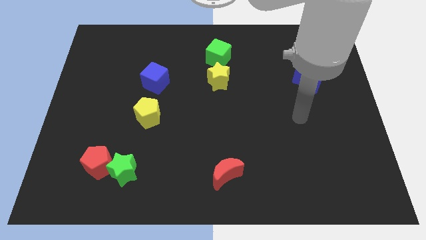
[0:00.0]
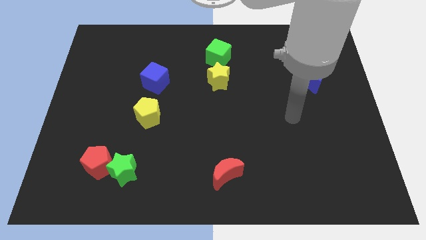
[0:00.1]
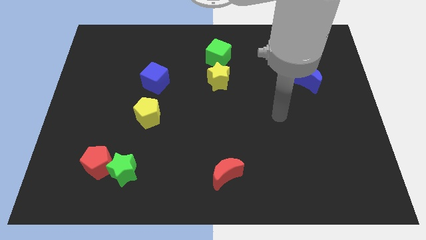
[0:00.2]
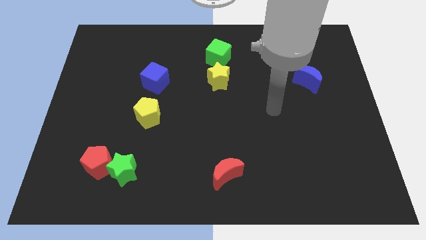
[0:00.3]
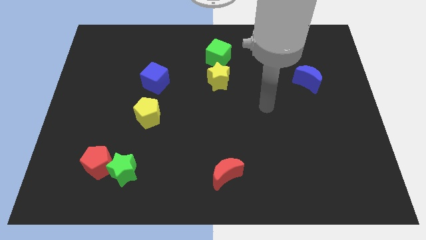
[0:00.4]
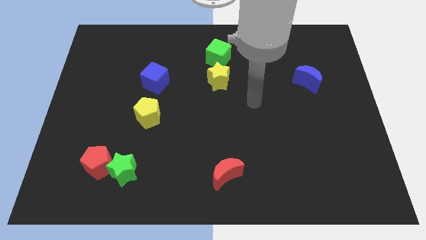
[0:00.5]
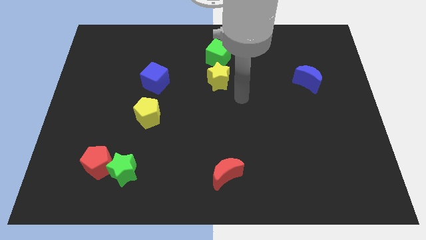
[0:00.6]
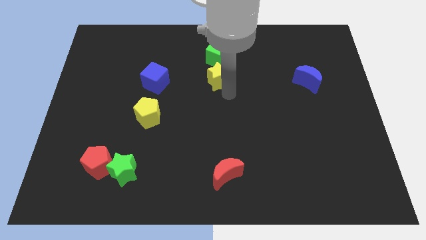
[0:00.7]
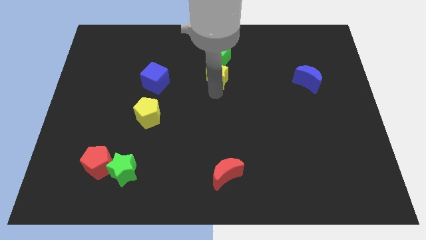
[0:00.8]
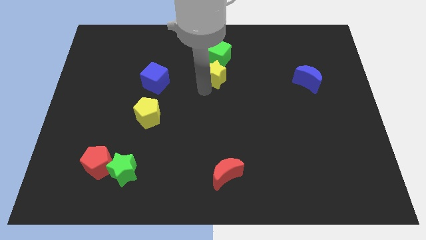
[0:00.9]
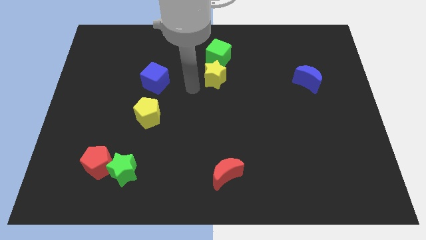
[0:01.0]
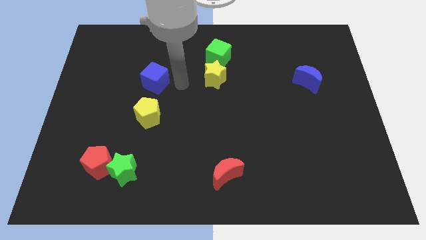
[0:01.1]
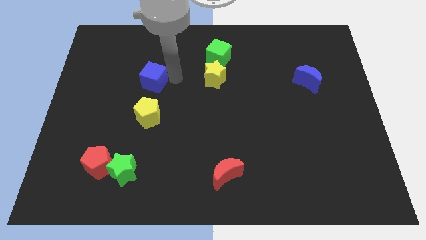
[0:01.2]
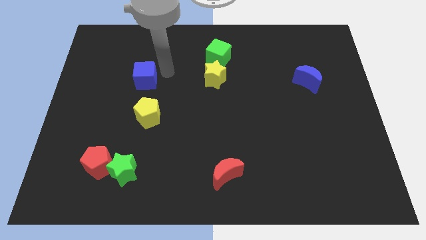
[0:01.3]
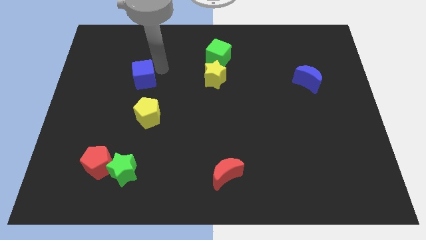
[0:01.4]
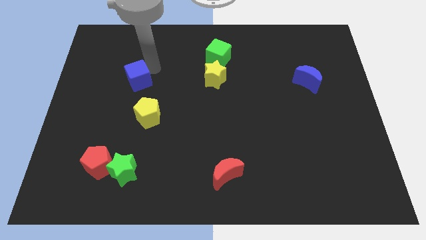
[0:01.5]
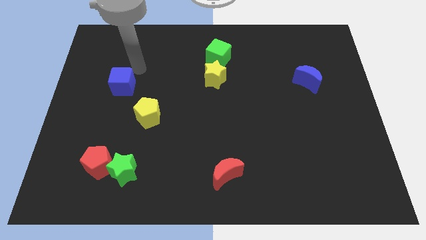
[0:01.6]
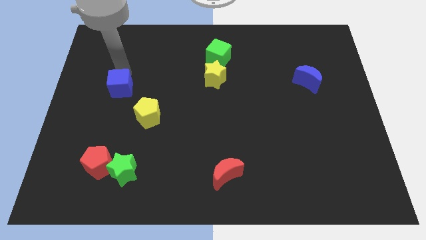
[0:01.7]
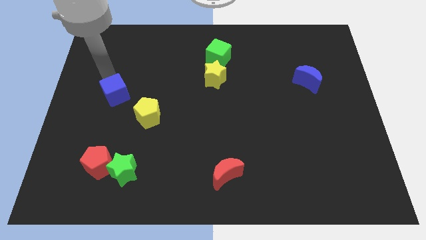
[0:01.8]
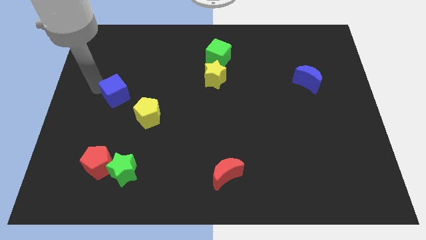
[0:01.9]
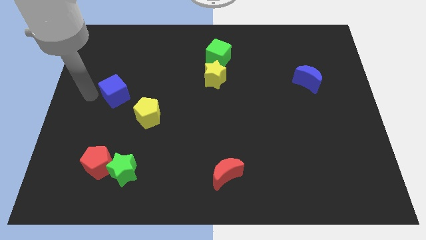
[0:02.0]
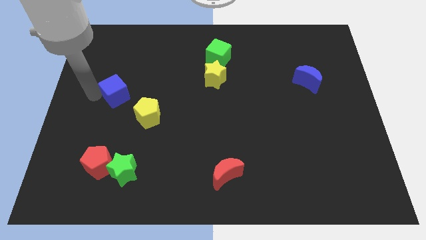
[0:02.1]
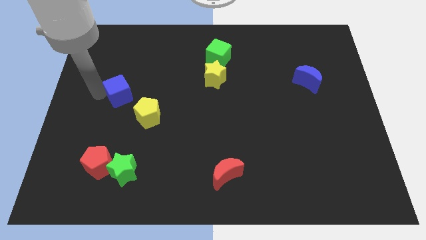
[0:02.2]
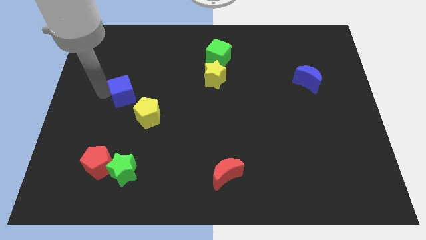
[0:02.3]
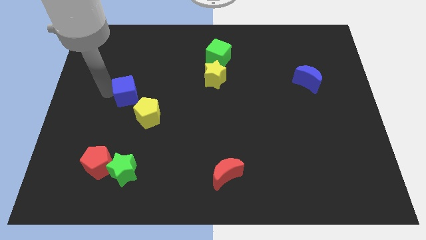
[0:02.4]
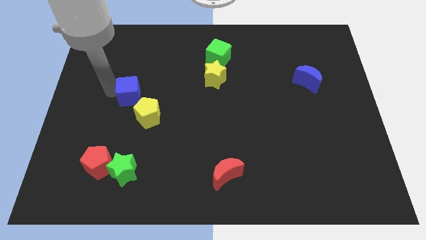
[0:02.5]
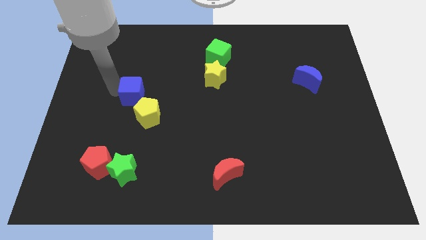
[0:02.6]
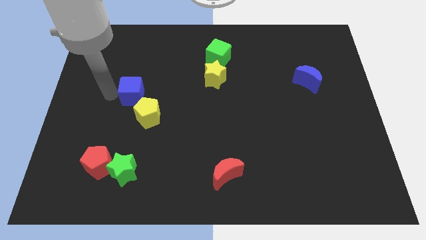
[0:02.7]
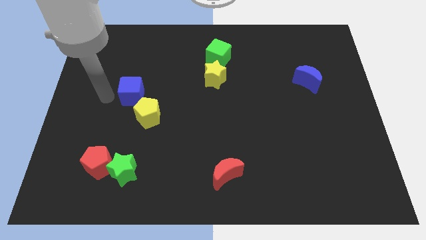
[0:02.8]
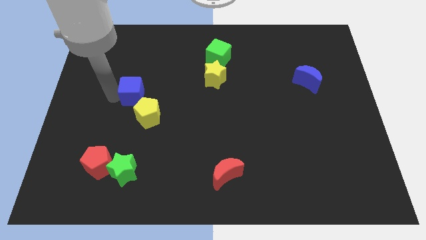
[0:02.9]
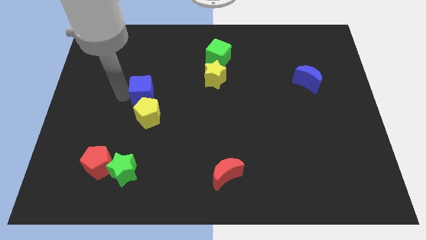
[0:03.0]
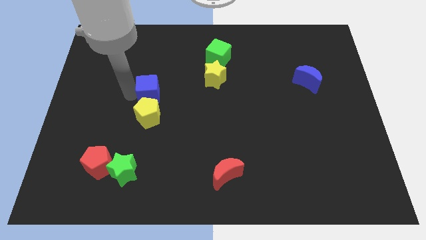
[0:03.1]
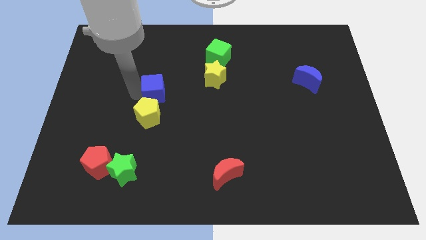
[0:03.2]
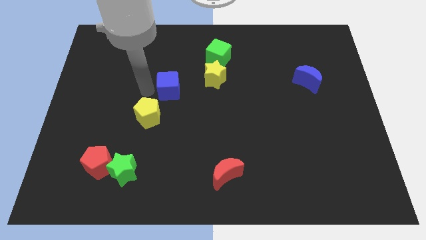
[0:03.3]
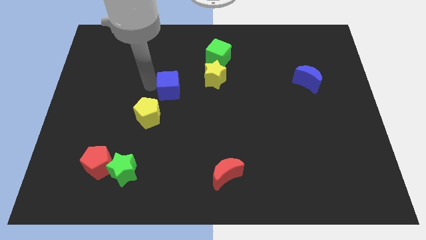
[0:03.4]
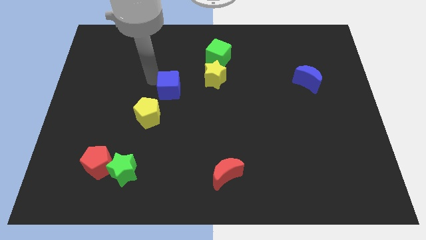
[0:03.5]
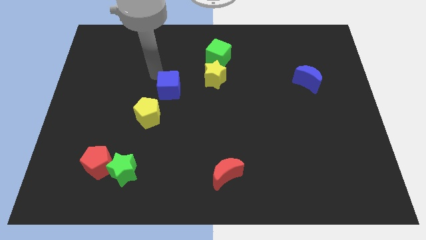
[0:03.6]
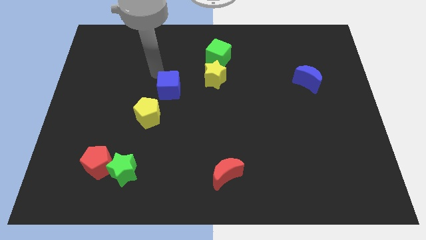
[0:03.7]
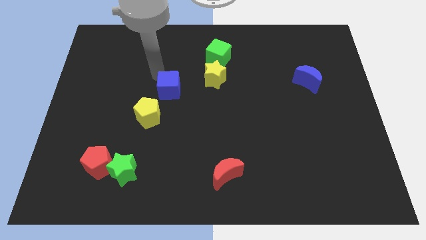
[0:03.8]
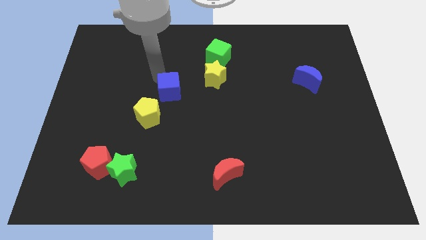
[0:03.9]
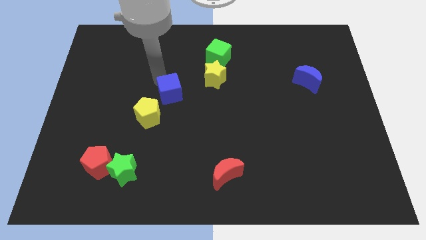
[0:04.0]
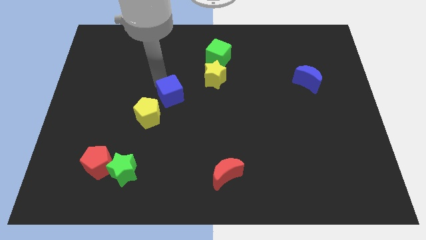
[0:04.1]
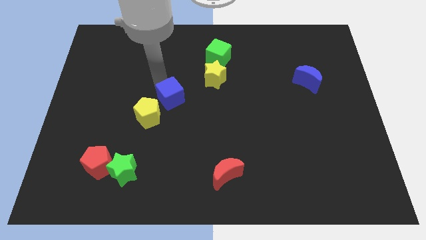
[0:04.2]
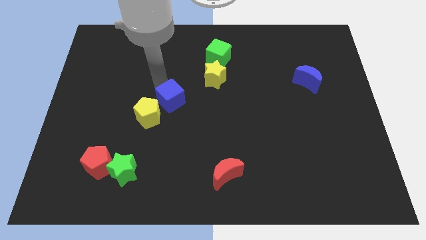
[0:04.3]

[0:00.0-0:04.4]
slightly push the blue cube down and right diagonally

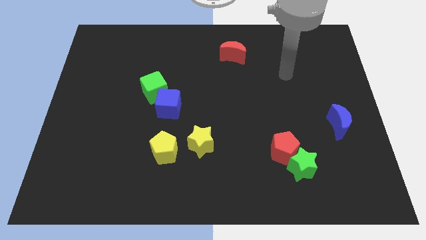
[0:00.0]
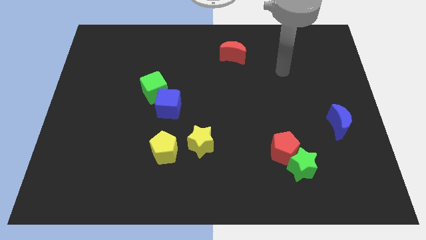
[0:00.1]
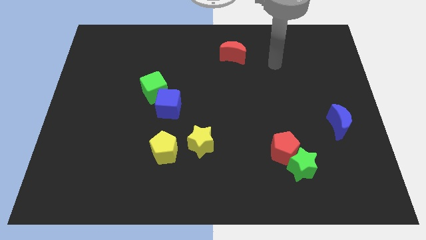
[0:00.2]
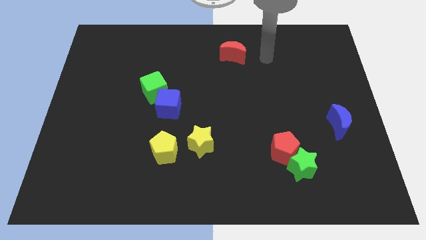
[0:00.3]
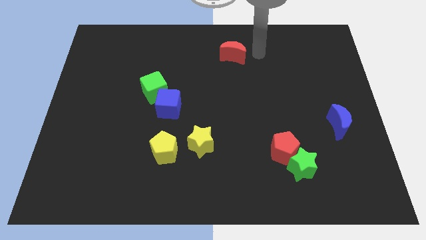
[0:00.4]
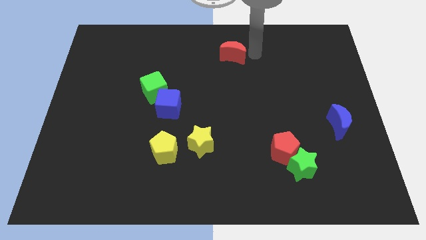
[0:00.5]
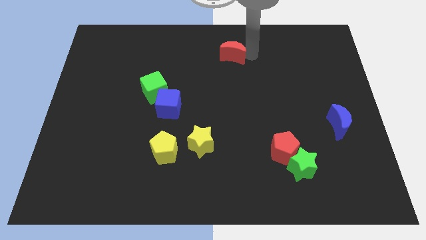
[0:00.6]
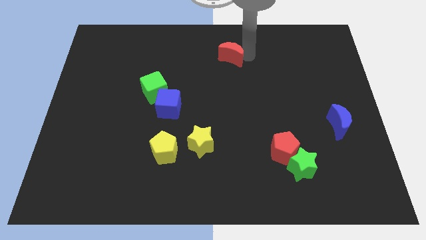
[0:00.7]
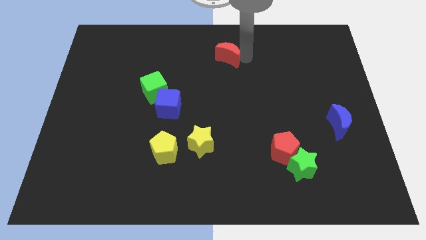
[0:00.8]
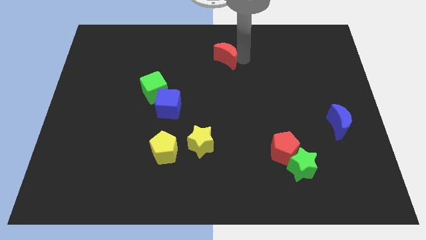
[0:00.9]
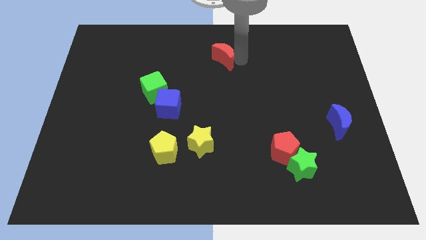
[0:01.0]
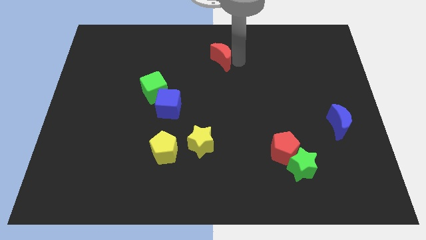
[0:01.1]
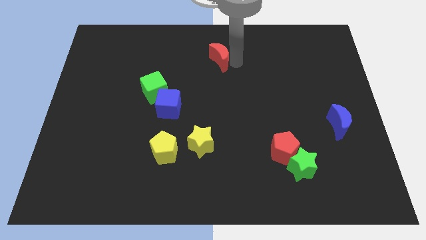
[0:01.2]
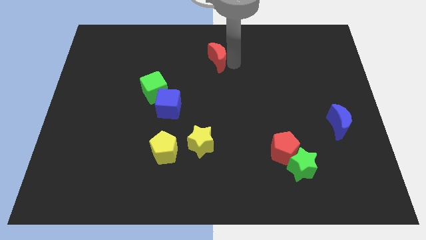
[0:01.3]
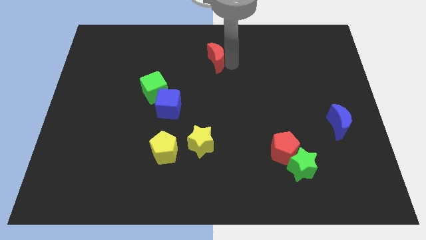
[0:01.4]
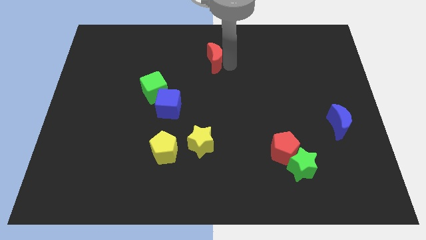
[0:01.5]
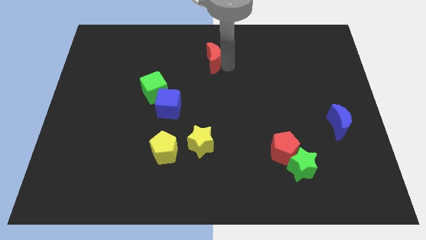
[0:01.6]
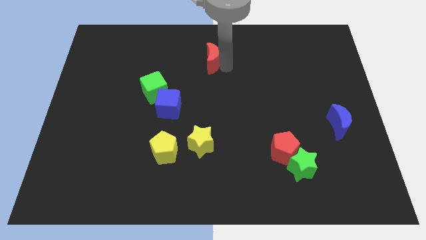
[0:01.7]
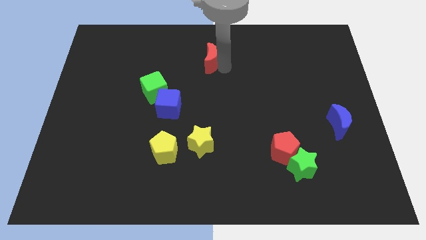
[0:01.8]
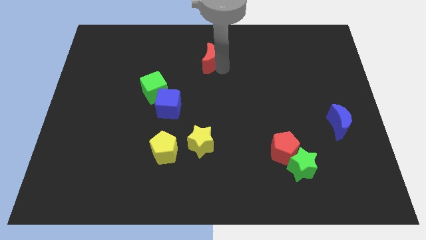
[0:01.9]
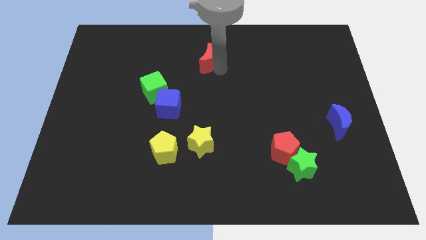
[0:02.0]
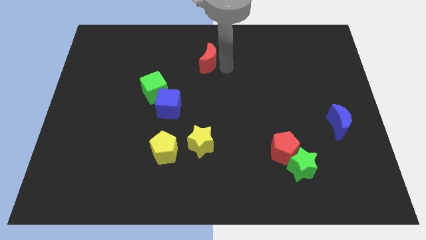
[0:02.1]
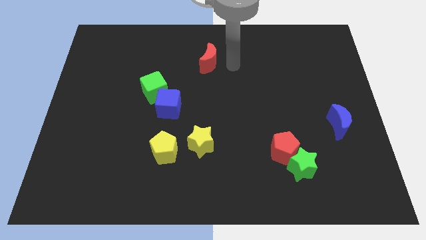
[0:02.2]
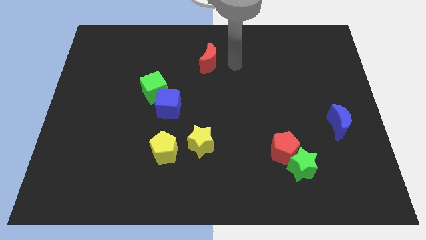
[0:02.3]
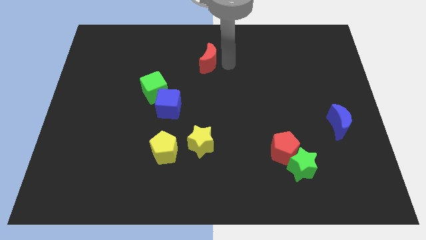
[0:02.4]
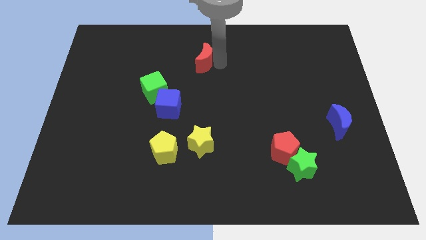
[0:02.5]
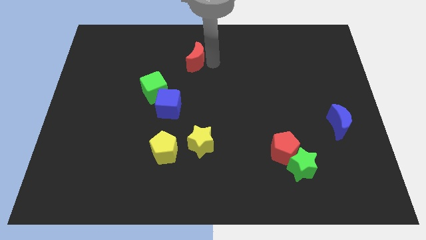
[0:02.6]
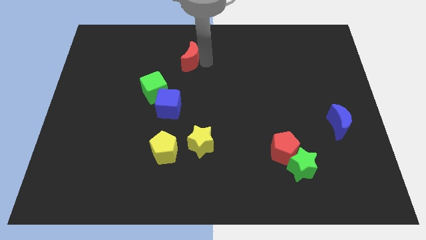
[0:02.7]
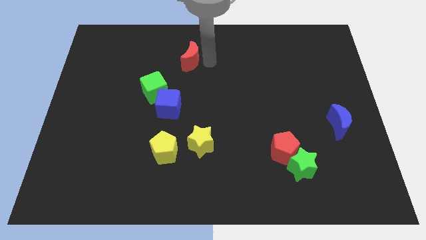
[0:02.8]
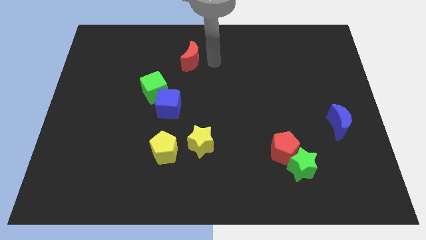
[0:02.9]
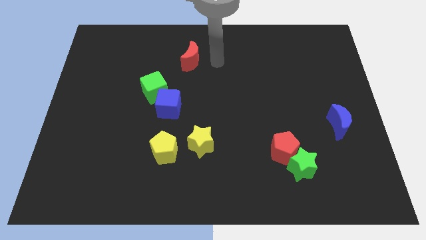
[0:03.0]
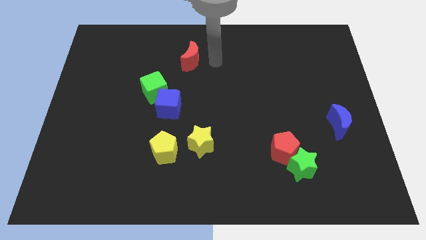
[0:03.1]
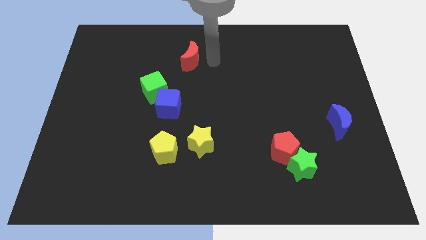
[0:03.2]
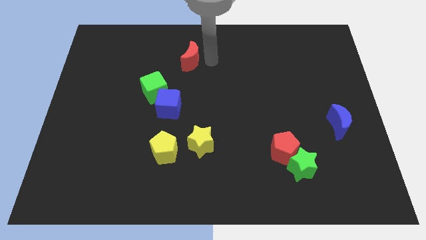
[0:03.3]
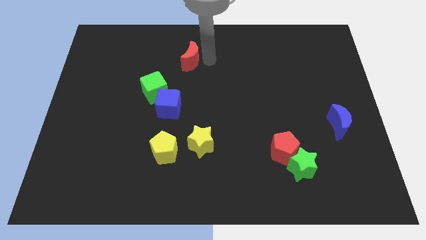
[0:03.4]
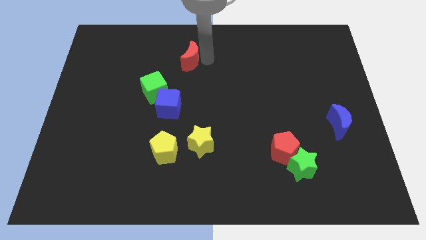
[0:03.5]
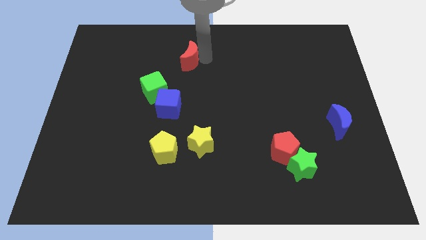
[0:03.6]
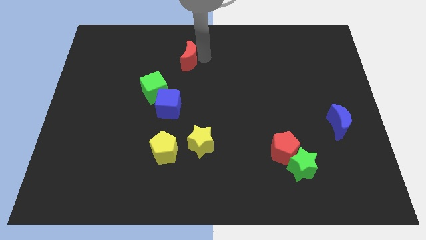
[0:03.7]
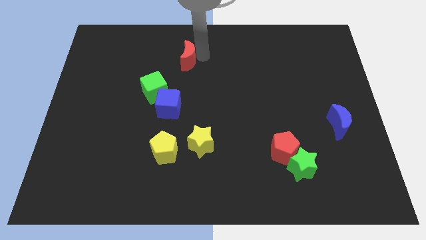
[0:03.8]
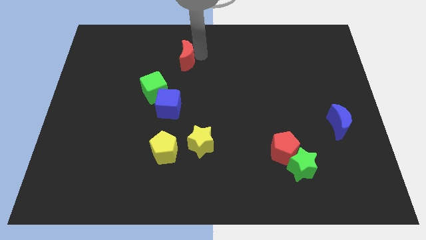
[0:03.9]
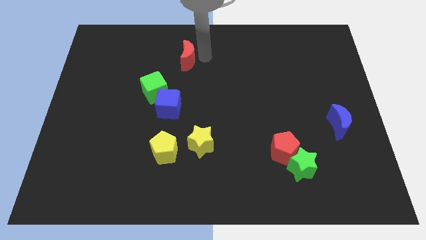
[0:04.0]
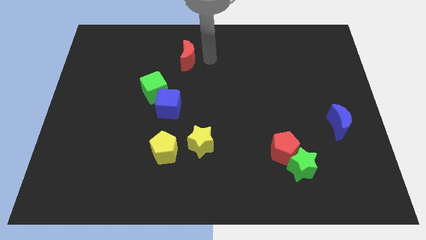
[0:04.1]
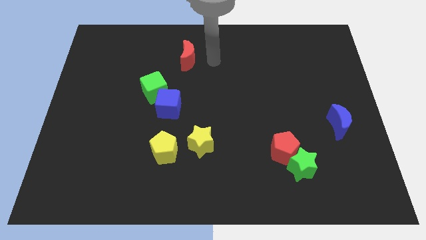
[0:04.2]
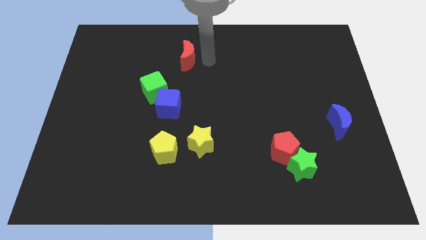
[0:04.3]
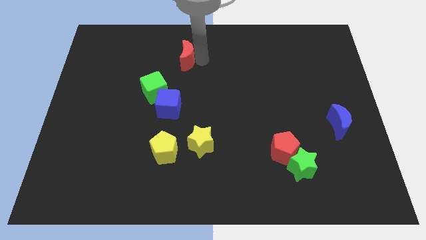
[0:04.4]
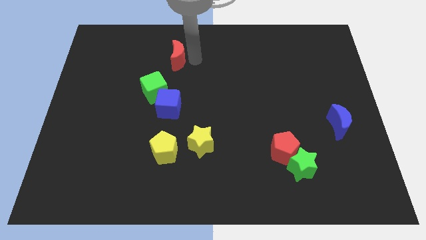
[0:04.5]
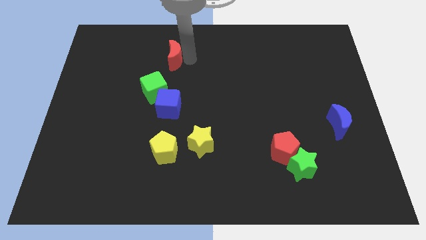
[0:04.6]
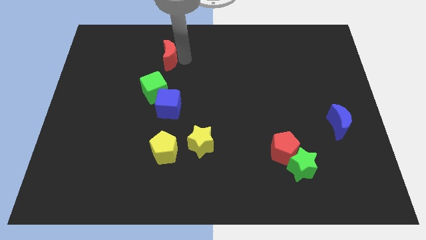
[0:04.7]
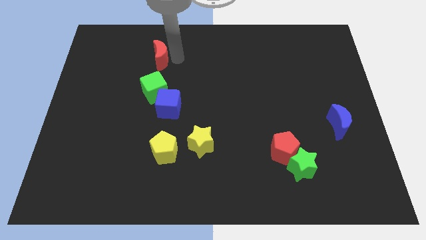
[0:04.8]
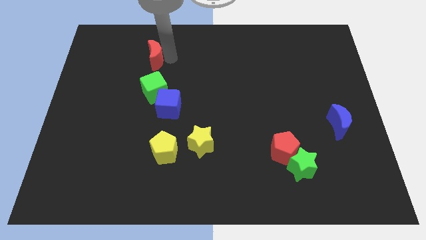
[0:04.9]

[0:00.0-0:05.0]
push the red moon to the left
